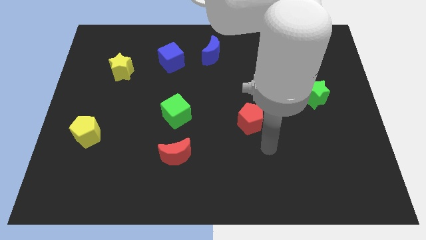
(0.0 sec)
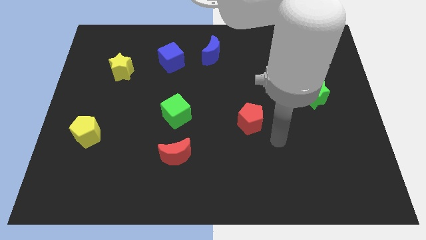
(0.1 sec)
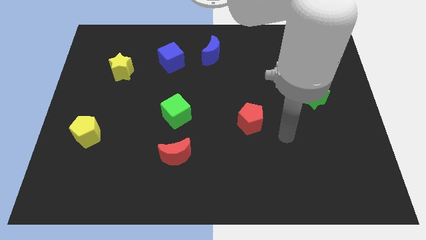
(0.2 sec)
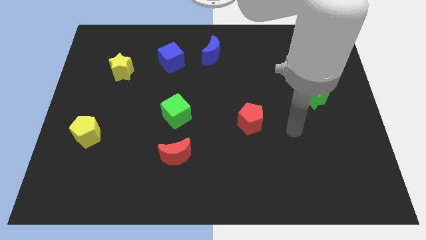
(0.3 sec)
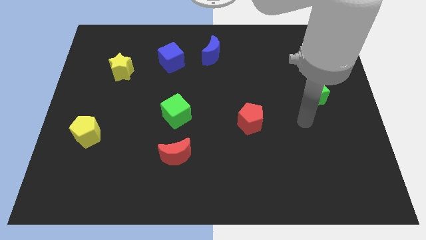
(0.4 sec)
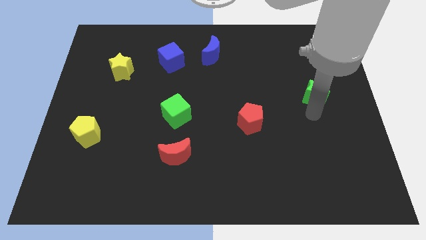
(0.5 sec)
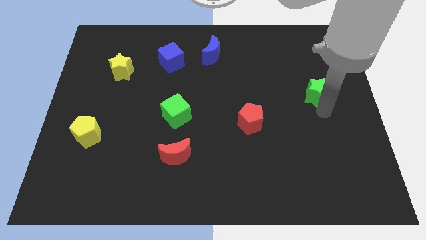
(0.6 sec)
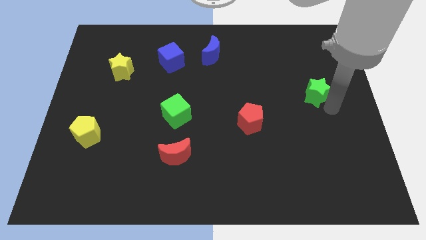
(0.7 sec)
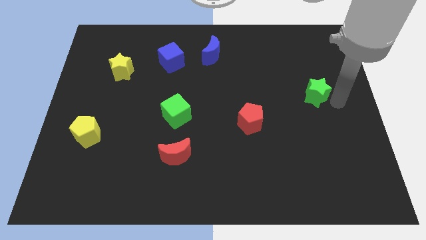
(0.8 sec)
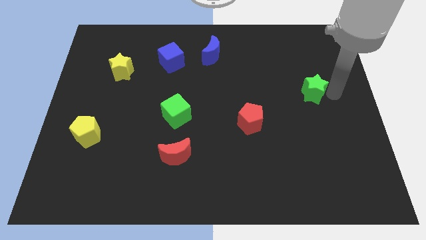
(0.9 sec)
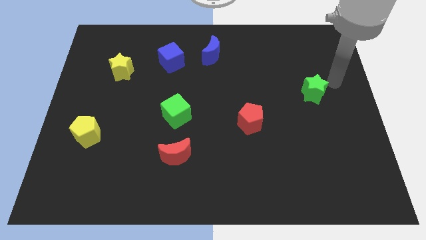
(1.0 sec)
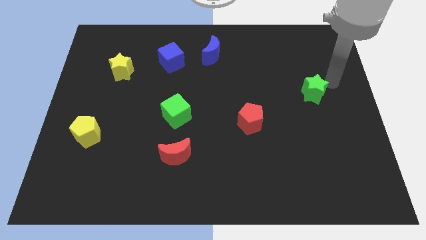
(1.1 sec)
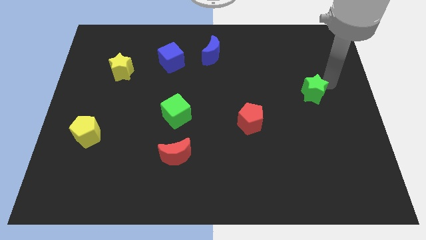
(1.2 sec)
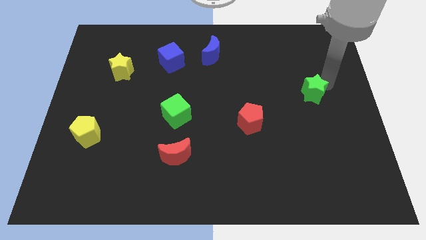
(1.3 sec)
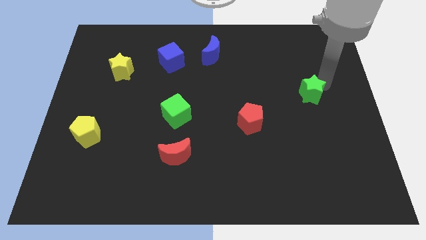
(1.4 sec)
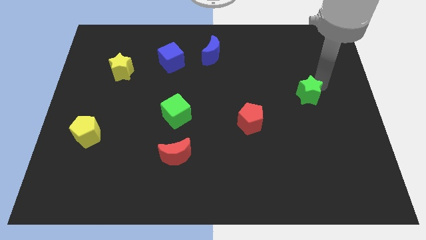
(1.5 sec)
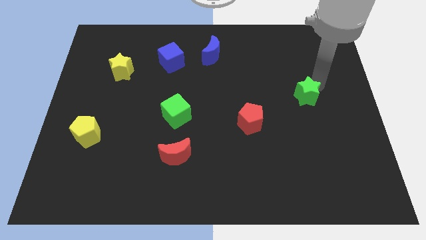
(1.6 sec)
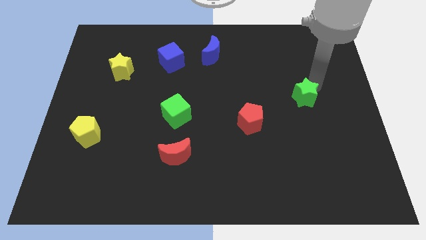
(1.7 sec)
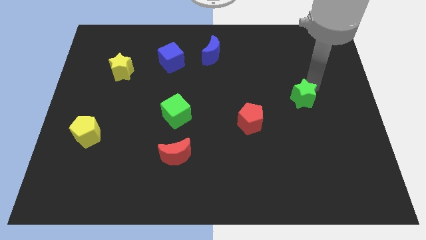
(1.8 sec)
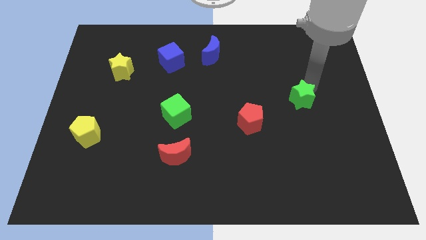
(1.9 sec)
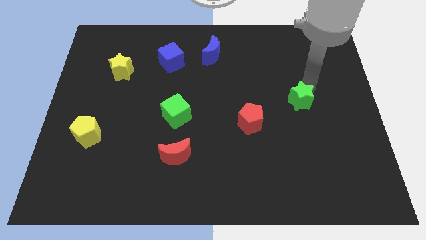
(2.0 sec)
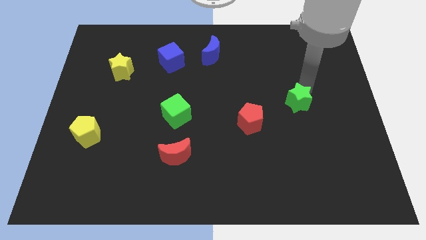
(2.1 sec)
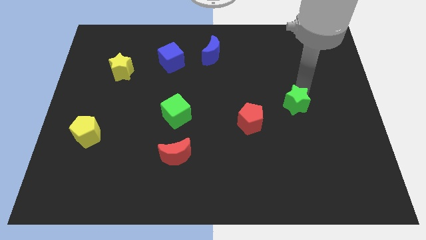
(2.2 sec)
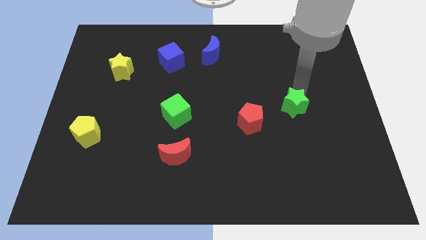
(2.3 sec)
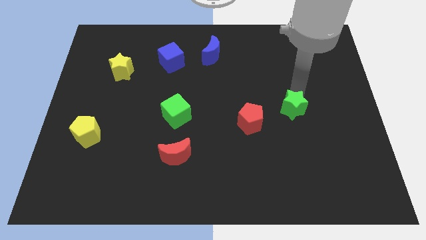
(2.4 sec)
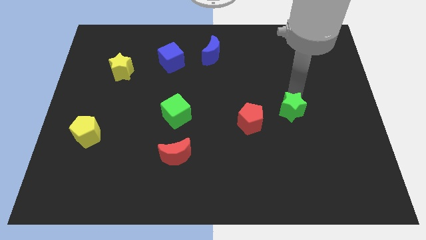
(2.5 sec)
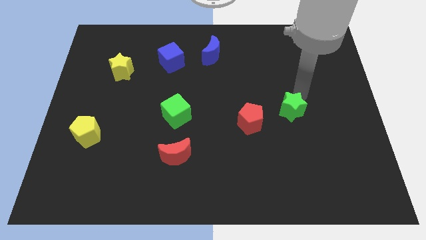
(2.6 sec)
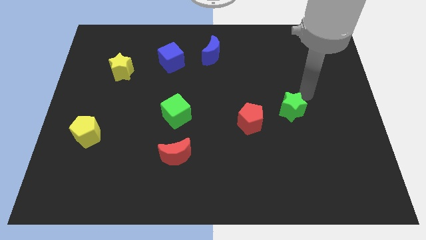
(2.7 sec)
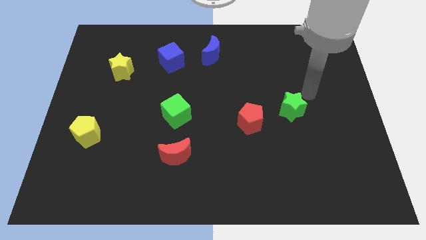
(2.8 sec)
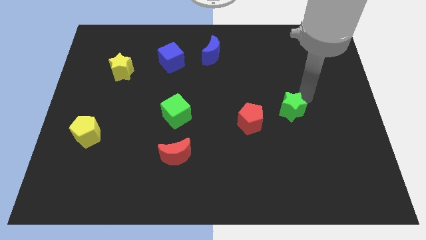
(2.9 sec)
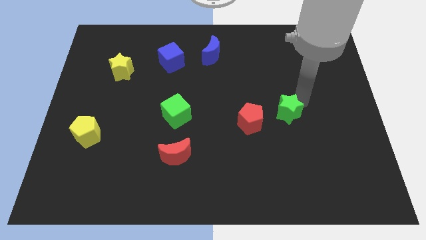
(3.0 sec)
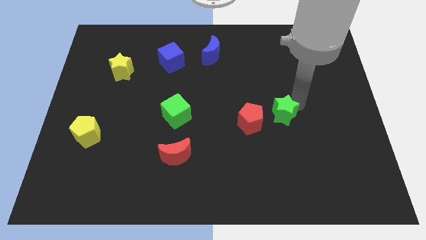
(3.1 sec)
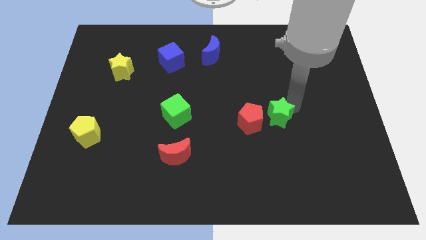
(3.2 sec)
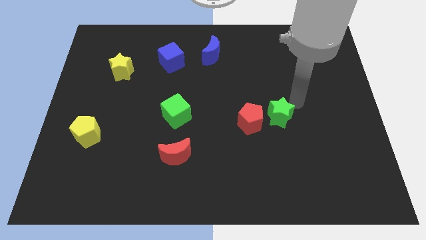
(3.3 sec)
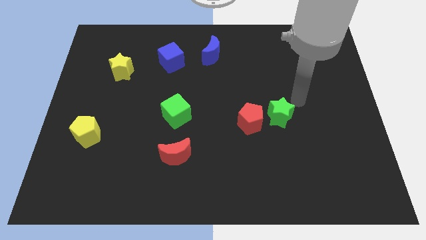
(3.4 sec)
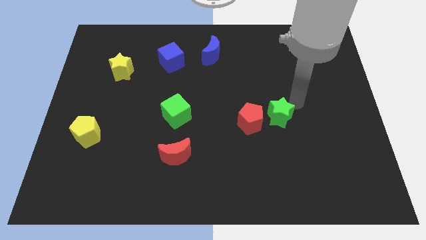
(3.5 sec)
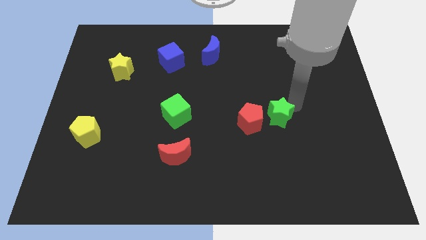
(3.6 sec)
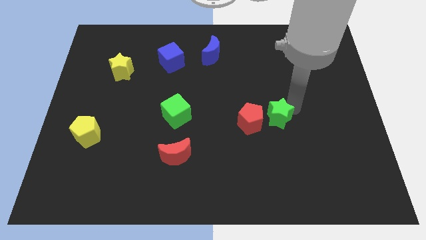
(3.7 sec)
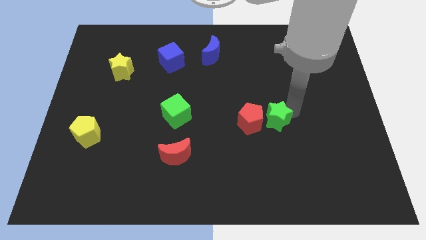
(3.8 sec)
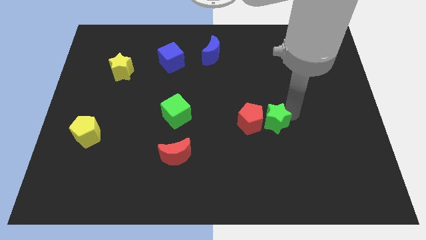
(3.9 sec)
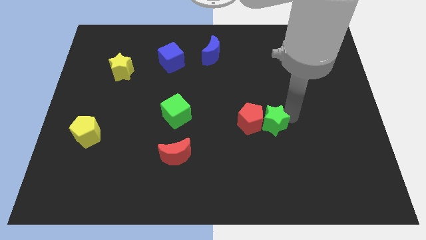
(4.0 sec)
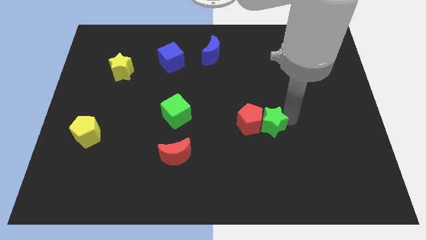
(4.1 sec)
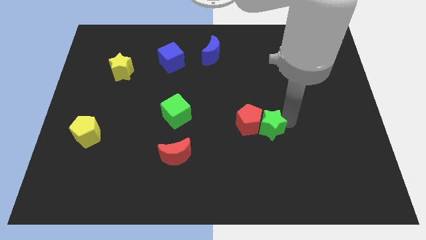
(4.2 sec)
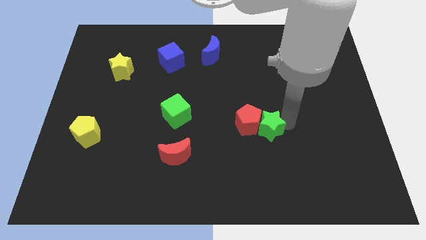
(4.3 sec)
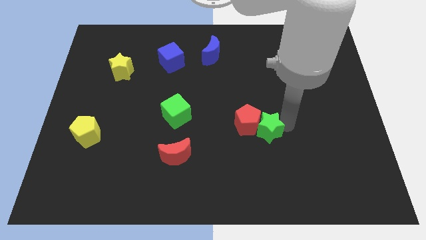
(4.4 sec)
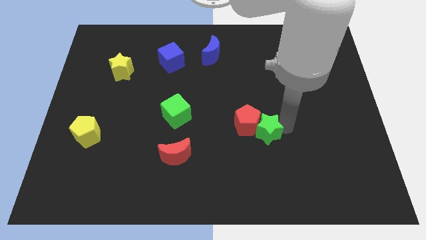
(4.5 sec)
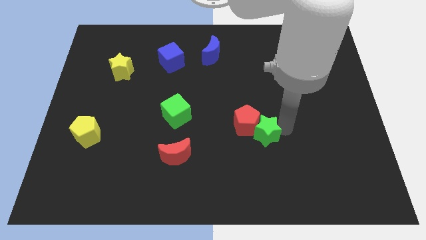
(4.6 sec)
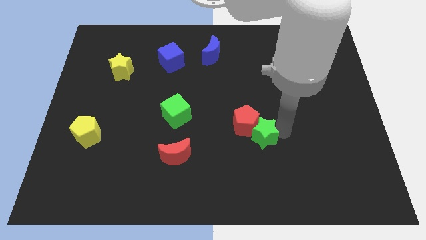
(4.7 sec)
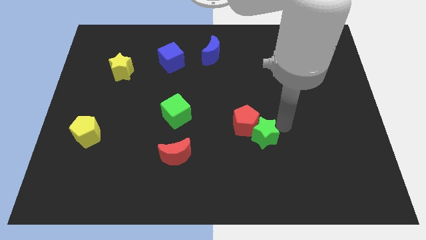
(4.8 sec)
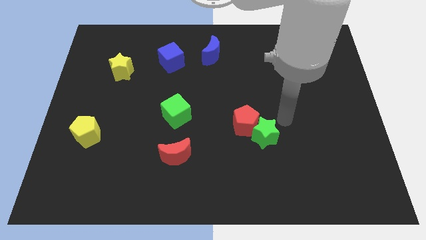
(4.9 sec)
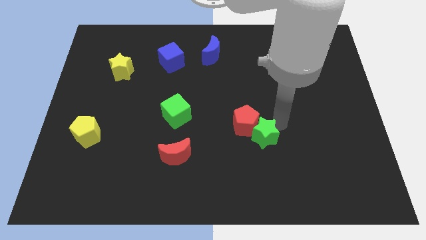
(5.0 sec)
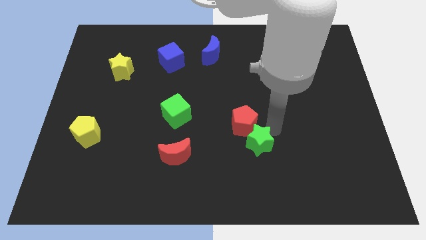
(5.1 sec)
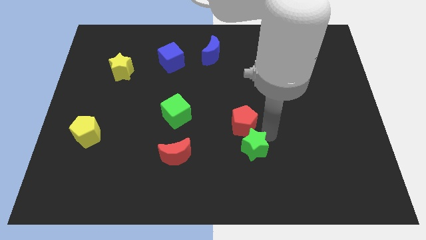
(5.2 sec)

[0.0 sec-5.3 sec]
push the green star diagonally downwards and left

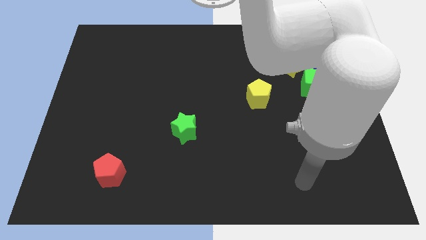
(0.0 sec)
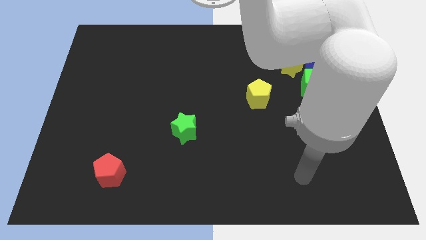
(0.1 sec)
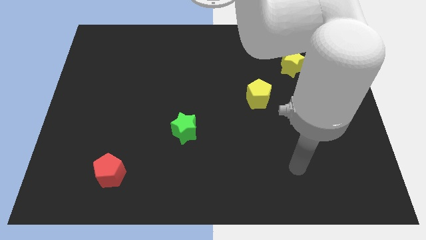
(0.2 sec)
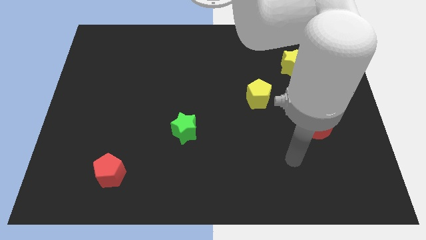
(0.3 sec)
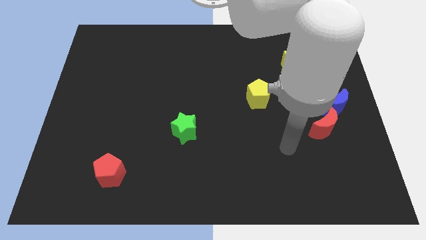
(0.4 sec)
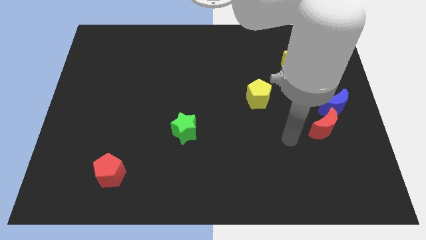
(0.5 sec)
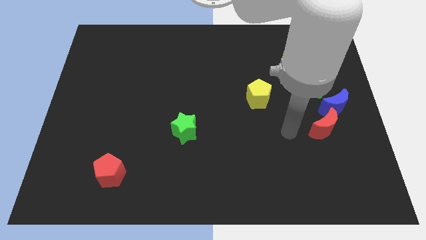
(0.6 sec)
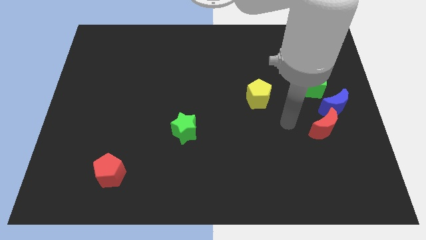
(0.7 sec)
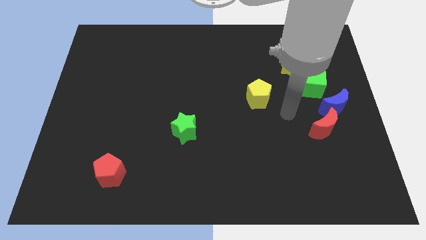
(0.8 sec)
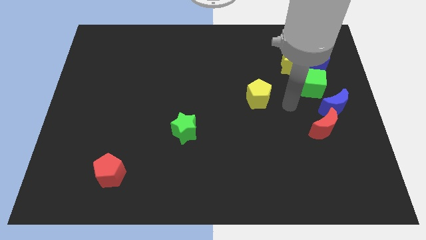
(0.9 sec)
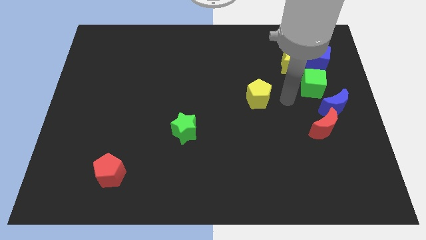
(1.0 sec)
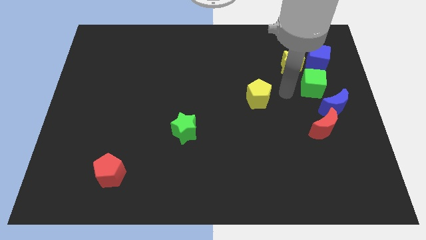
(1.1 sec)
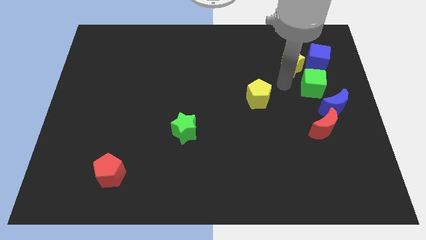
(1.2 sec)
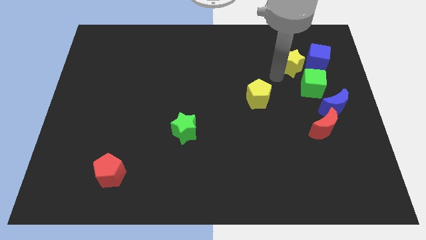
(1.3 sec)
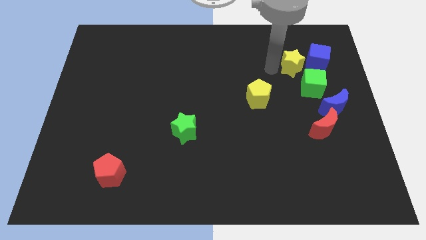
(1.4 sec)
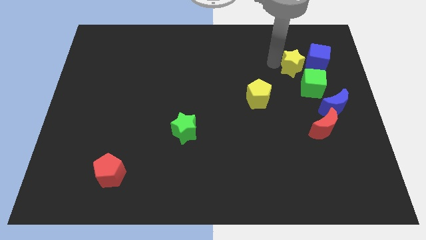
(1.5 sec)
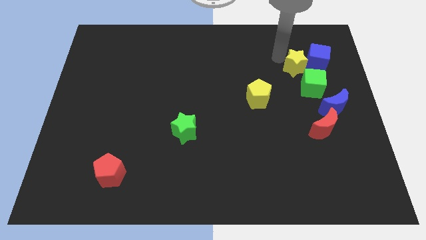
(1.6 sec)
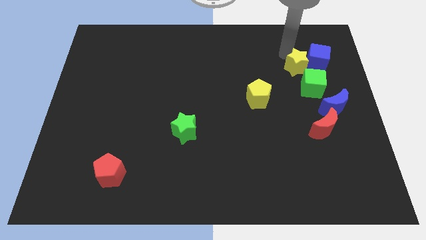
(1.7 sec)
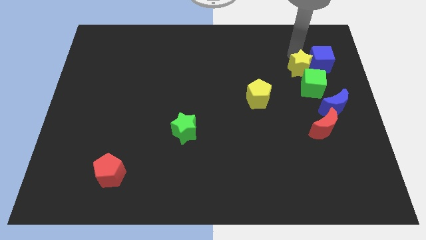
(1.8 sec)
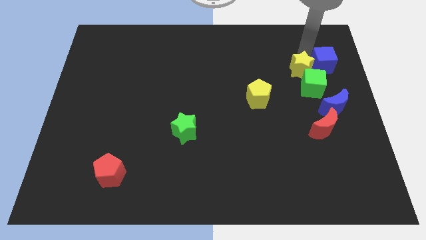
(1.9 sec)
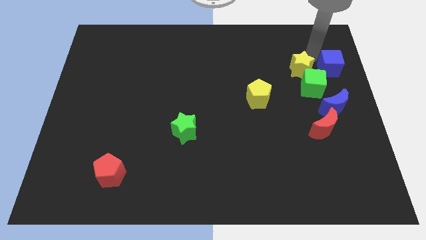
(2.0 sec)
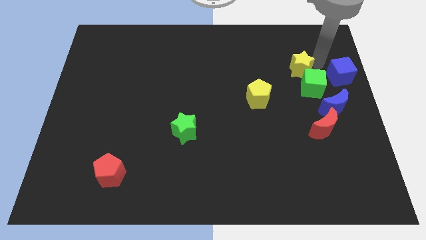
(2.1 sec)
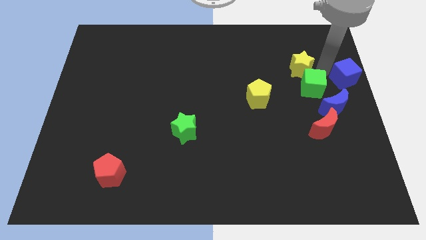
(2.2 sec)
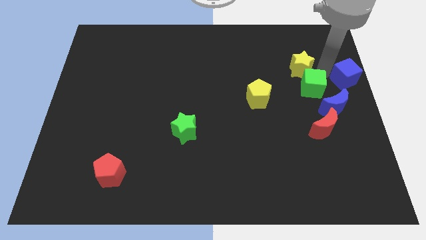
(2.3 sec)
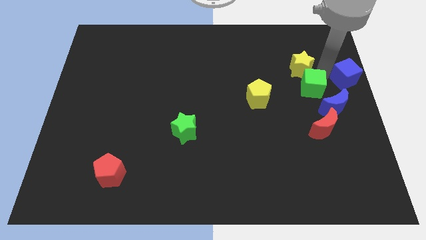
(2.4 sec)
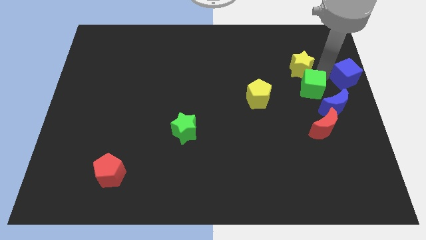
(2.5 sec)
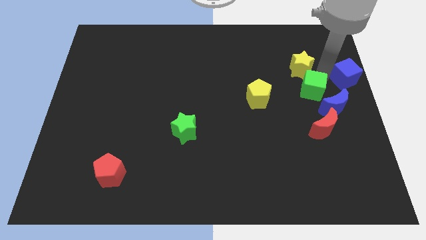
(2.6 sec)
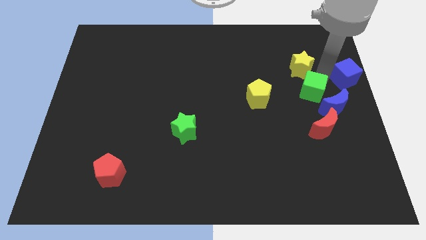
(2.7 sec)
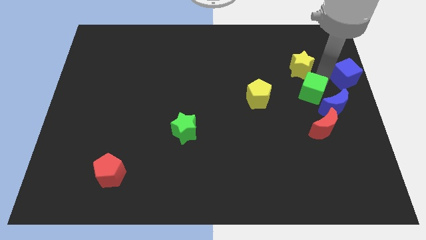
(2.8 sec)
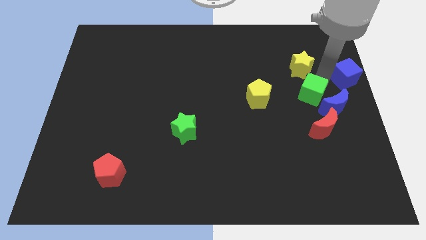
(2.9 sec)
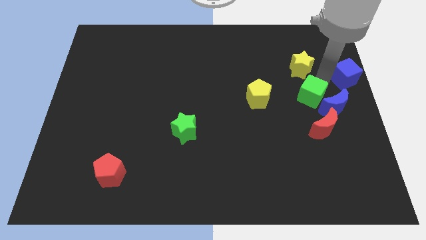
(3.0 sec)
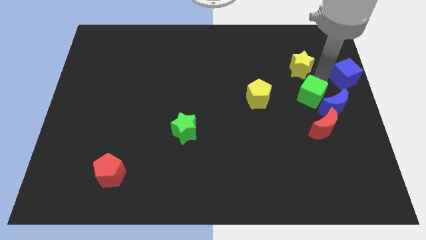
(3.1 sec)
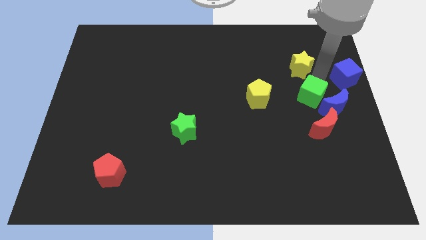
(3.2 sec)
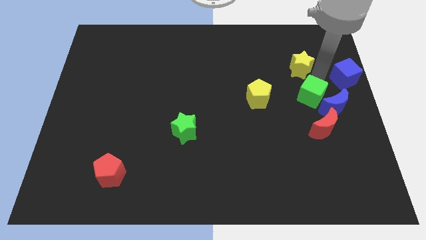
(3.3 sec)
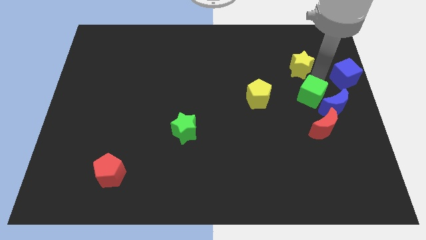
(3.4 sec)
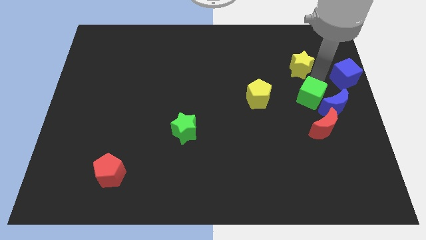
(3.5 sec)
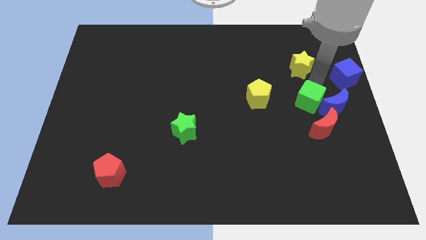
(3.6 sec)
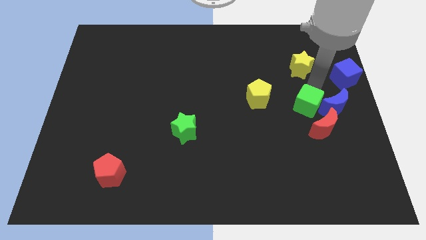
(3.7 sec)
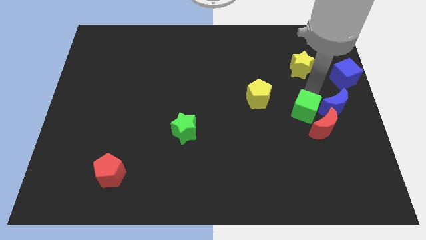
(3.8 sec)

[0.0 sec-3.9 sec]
slightly push the green cube down
